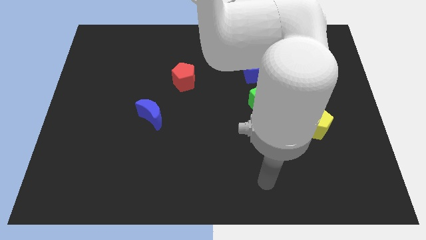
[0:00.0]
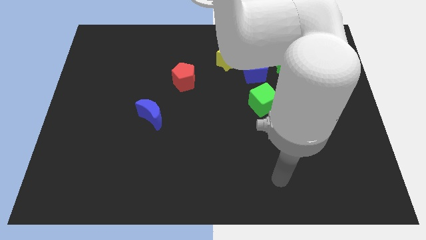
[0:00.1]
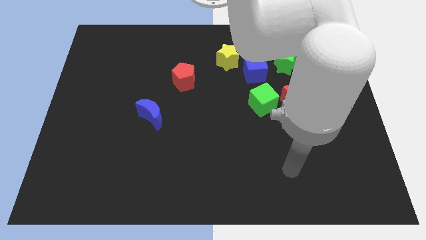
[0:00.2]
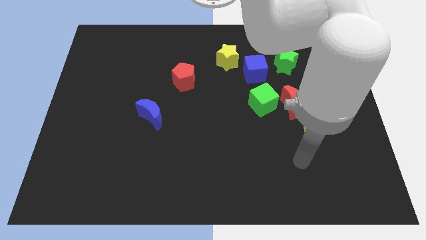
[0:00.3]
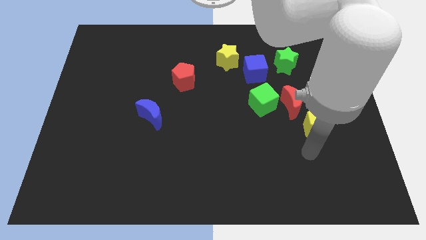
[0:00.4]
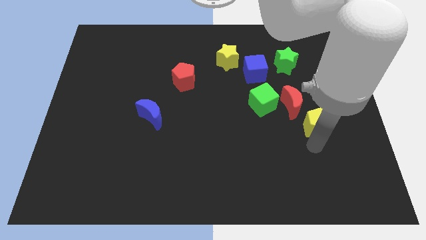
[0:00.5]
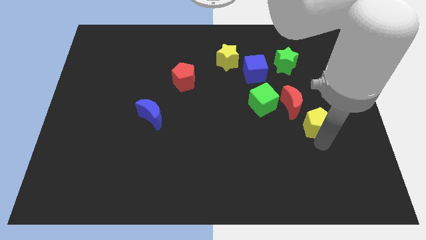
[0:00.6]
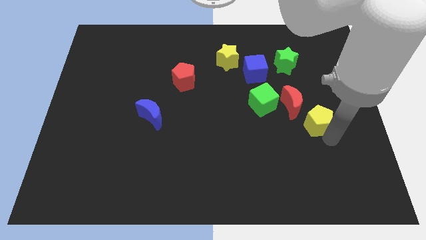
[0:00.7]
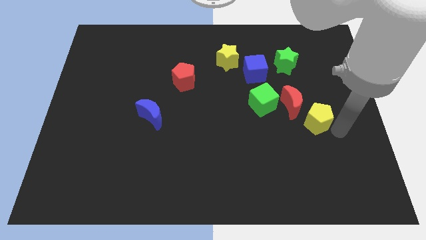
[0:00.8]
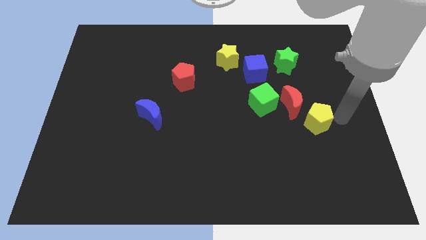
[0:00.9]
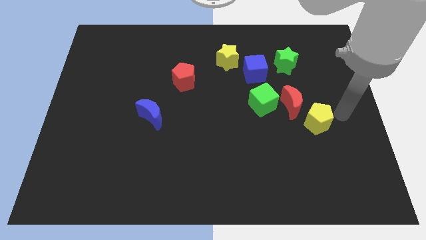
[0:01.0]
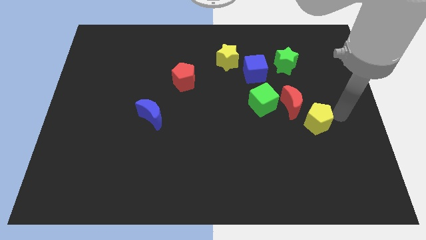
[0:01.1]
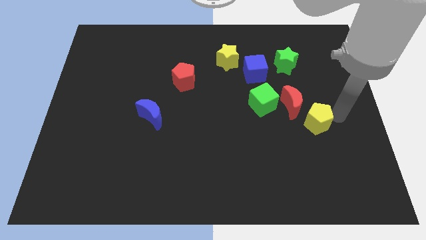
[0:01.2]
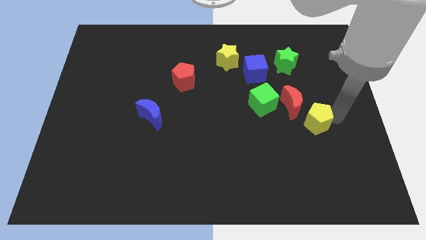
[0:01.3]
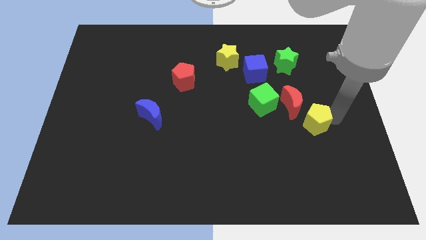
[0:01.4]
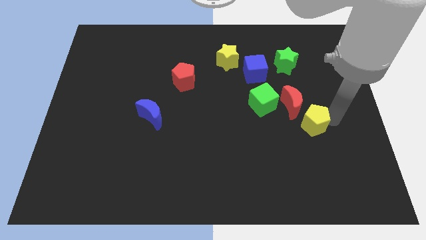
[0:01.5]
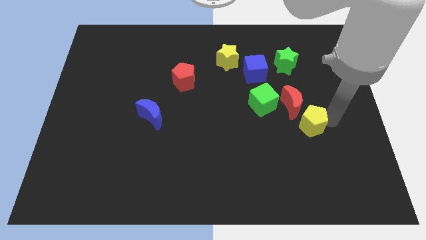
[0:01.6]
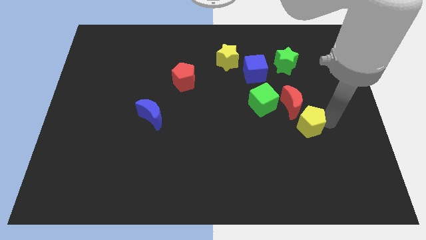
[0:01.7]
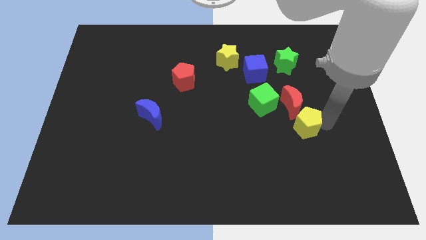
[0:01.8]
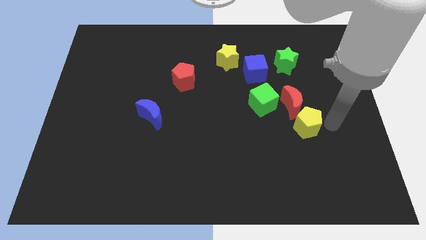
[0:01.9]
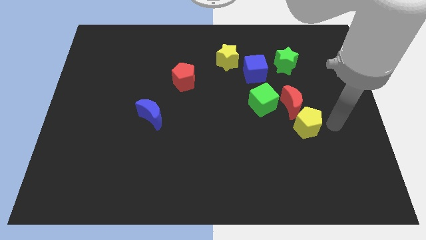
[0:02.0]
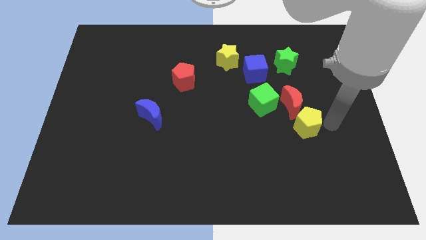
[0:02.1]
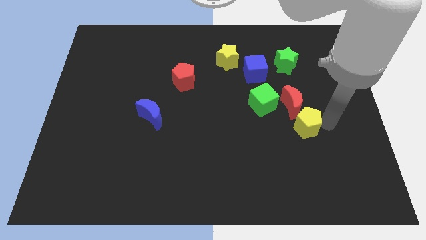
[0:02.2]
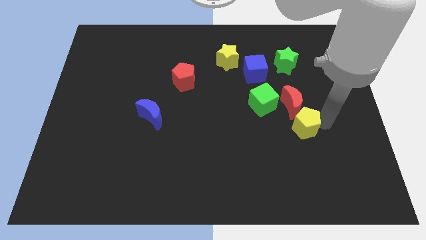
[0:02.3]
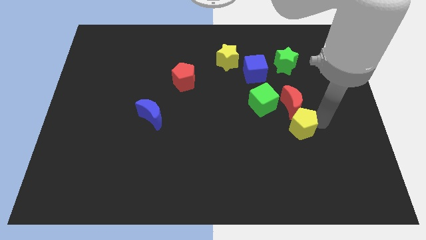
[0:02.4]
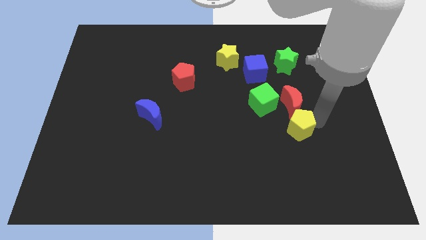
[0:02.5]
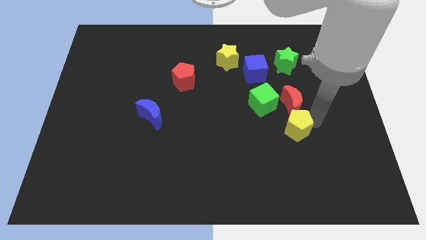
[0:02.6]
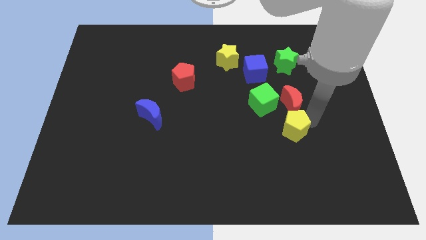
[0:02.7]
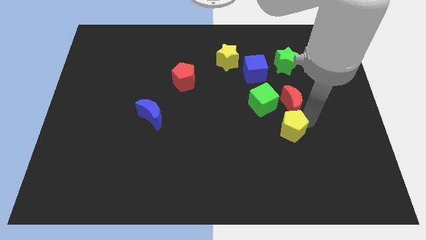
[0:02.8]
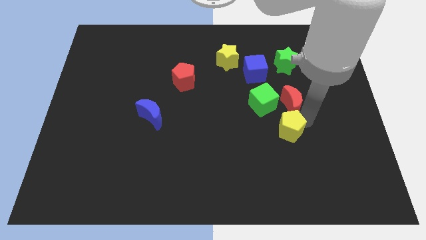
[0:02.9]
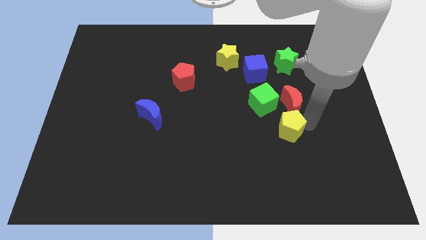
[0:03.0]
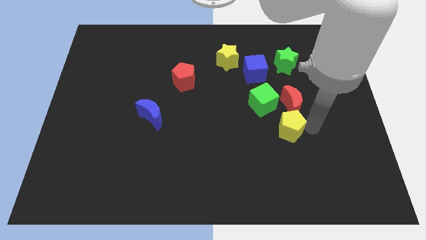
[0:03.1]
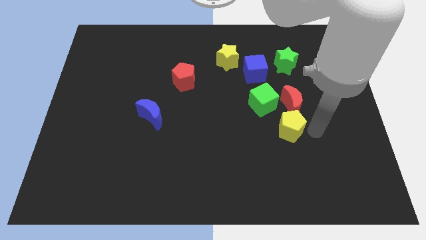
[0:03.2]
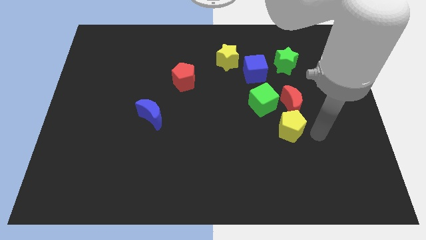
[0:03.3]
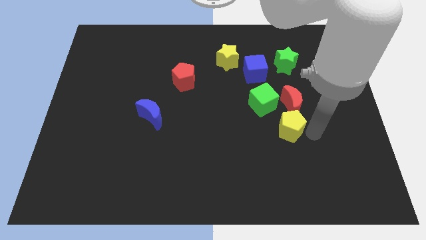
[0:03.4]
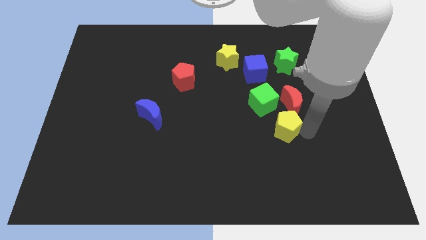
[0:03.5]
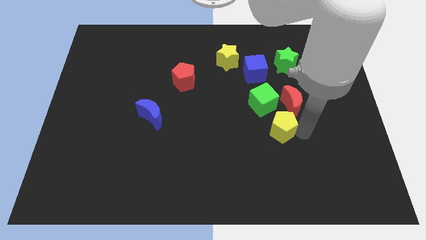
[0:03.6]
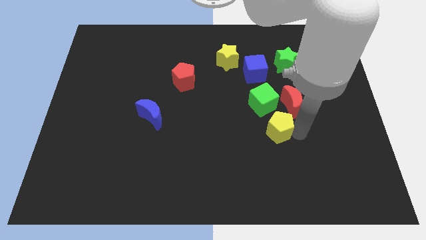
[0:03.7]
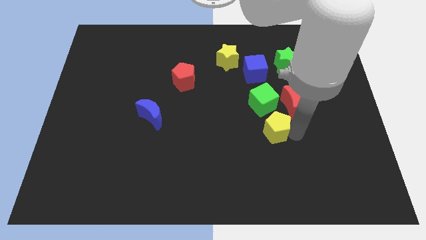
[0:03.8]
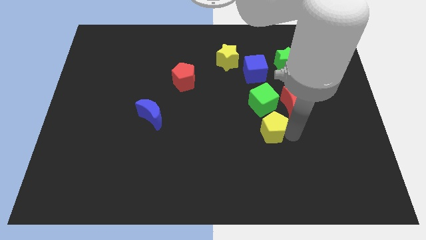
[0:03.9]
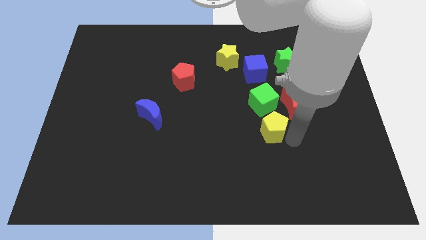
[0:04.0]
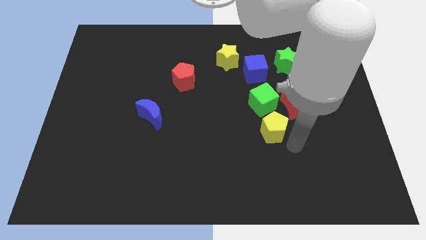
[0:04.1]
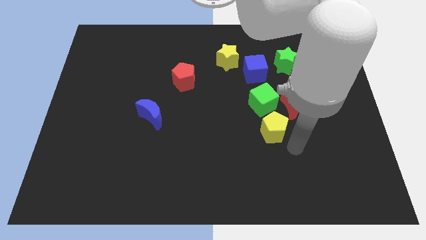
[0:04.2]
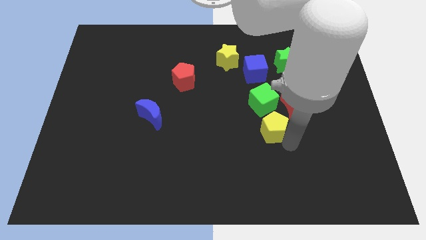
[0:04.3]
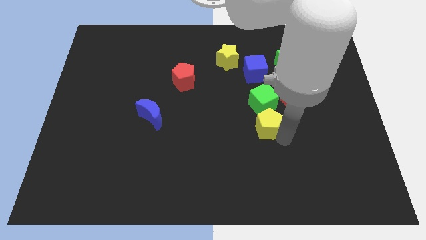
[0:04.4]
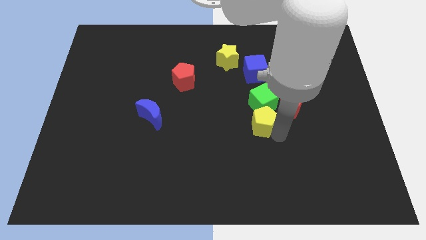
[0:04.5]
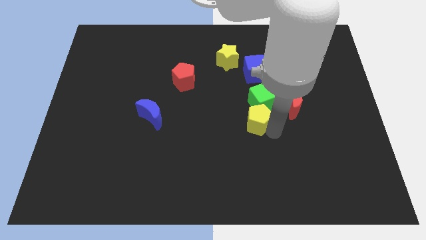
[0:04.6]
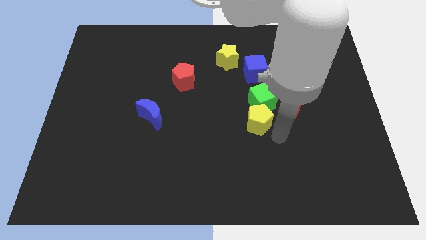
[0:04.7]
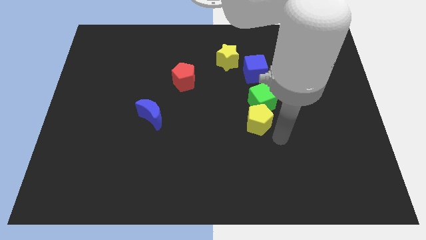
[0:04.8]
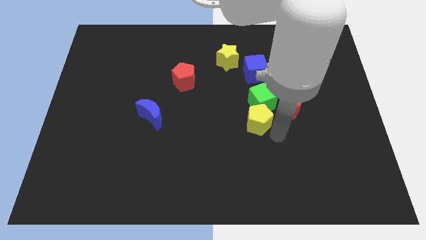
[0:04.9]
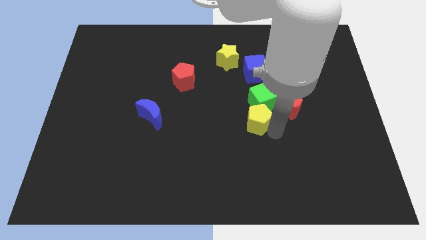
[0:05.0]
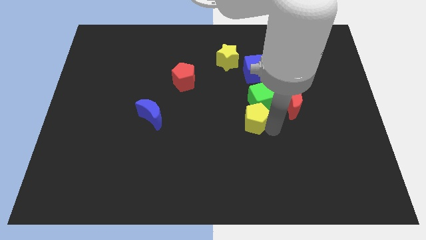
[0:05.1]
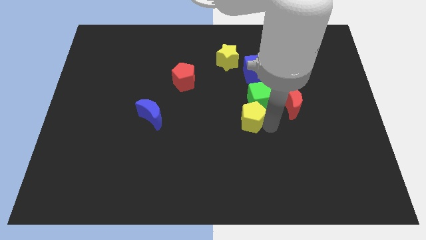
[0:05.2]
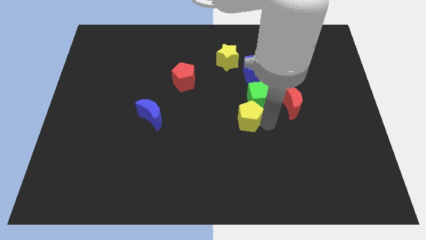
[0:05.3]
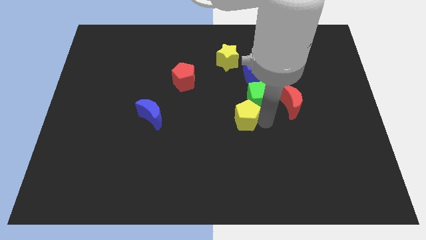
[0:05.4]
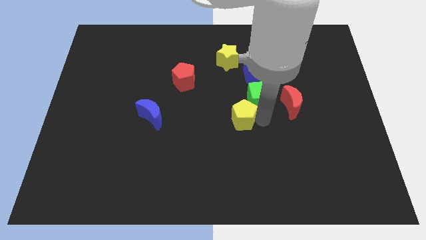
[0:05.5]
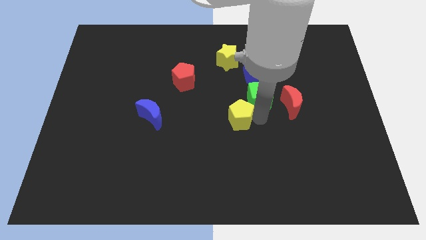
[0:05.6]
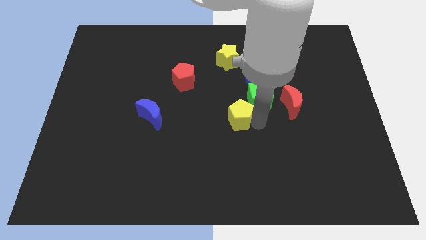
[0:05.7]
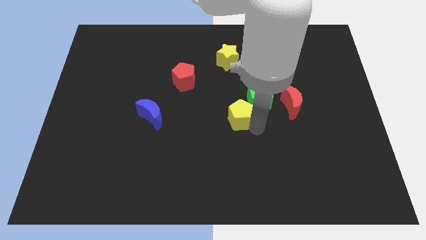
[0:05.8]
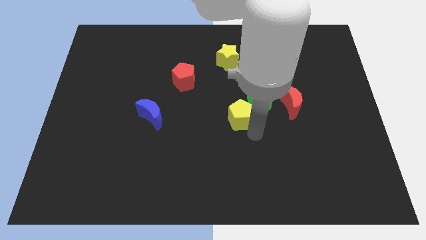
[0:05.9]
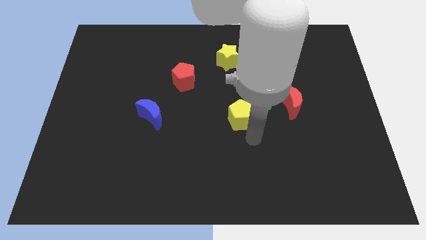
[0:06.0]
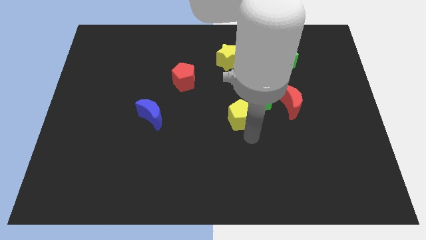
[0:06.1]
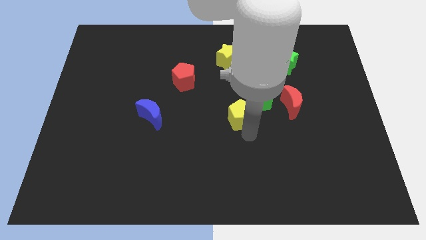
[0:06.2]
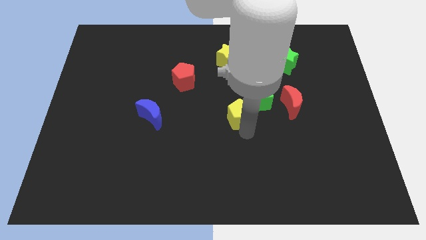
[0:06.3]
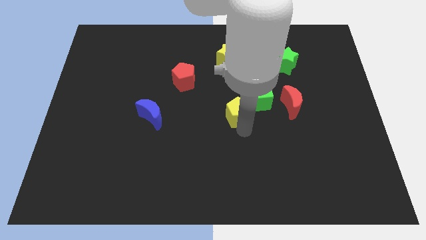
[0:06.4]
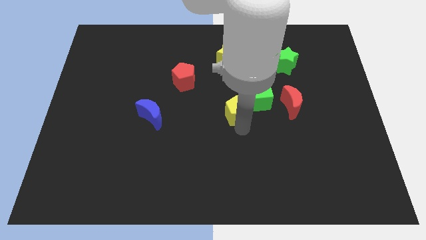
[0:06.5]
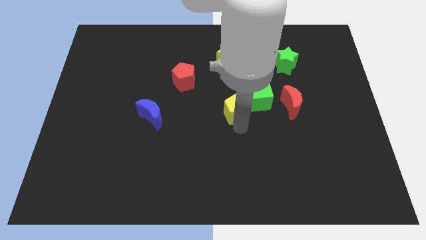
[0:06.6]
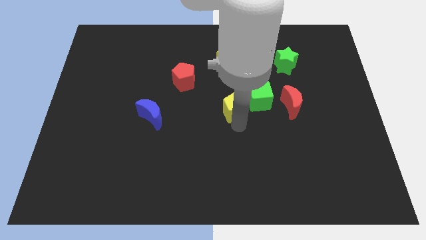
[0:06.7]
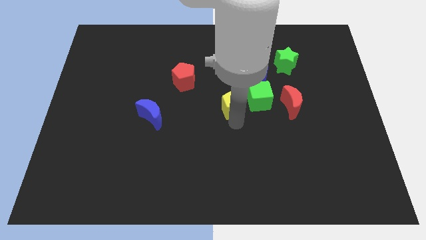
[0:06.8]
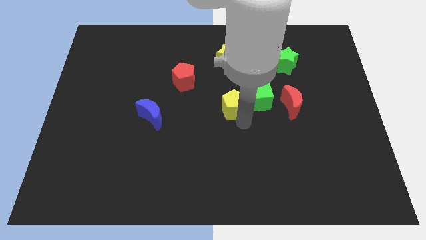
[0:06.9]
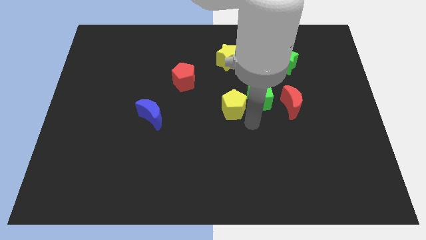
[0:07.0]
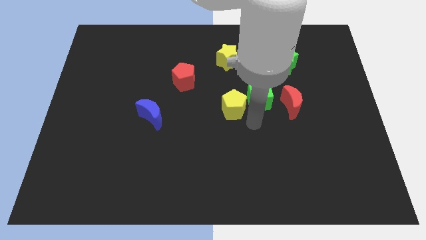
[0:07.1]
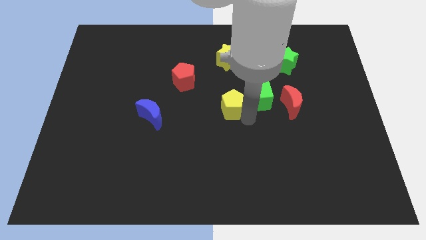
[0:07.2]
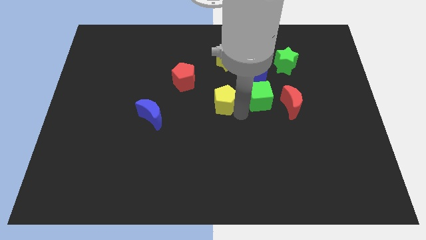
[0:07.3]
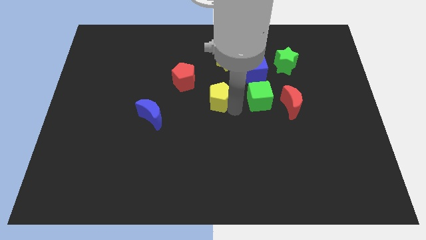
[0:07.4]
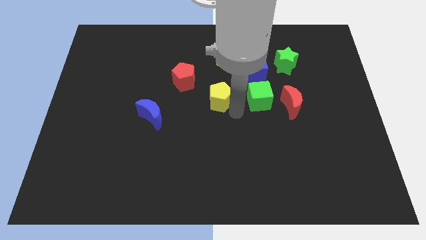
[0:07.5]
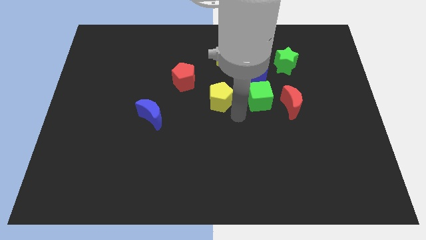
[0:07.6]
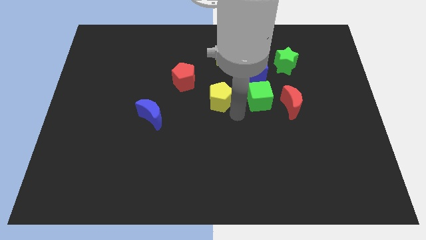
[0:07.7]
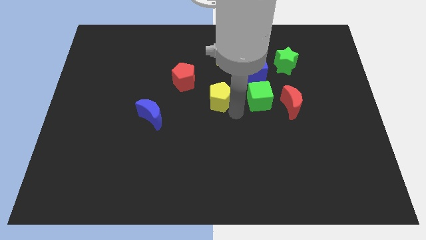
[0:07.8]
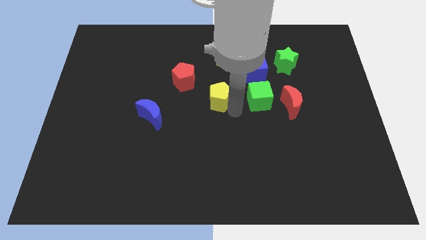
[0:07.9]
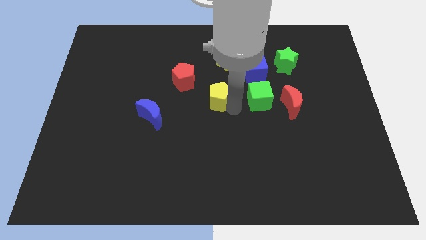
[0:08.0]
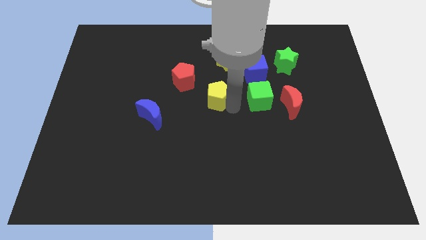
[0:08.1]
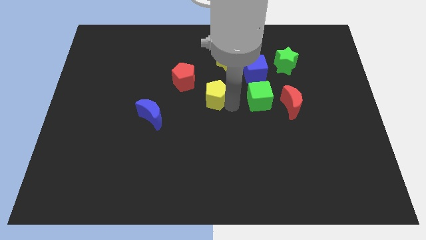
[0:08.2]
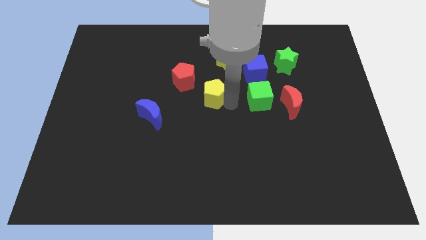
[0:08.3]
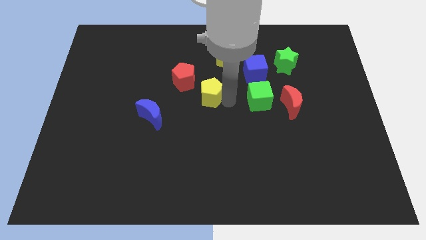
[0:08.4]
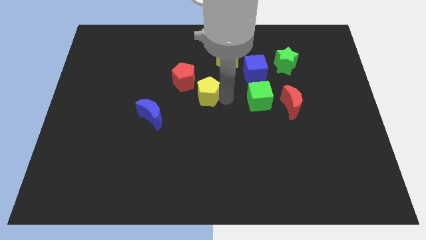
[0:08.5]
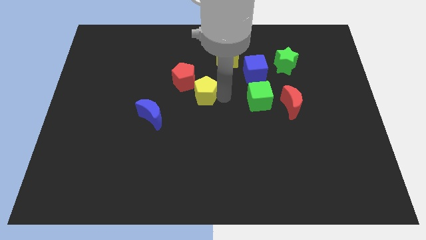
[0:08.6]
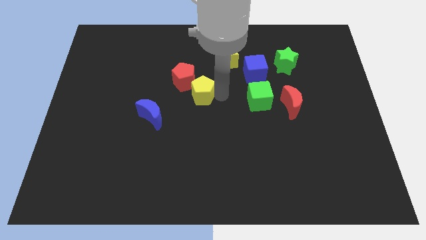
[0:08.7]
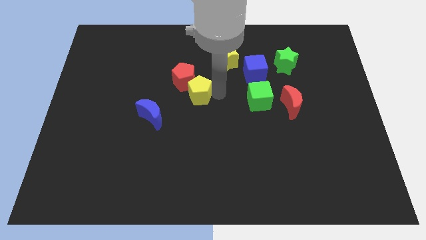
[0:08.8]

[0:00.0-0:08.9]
slide the yellow pentagon next to the red pentagon
